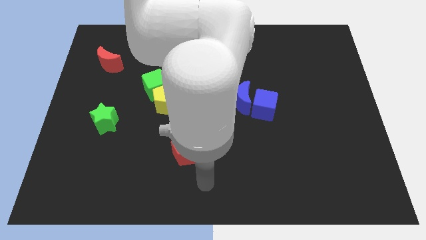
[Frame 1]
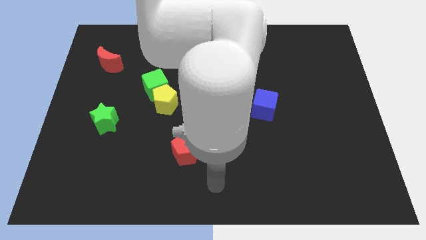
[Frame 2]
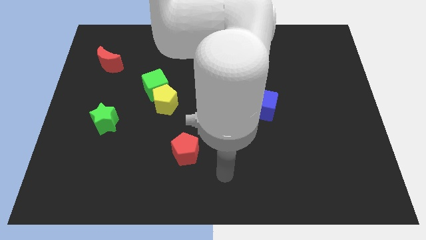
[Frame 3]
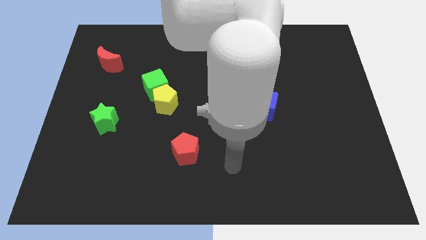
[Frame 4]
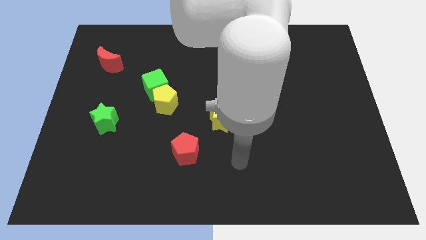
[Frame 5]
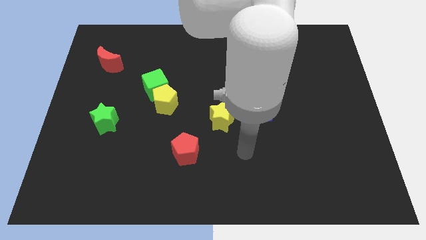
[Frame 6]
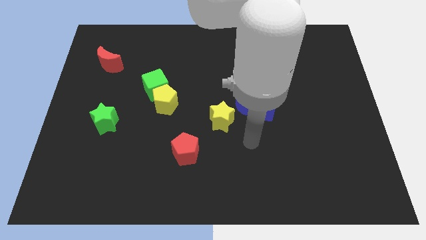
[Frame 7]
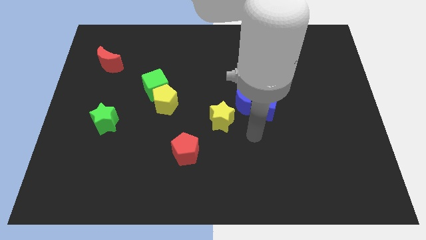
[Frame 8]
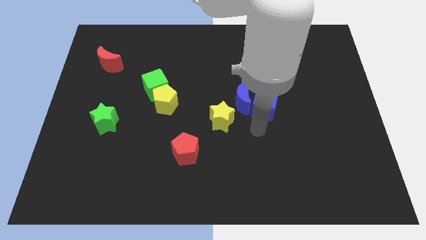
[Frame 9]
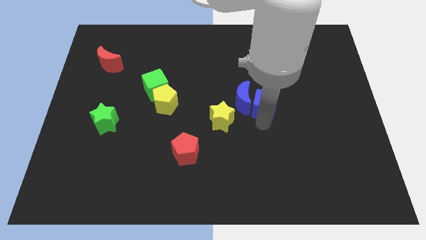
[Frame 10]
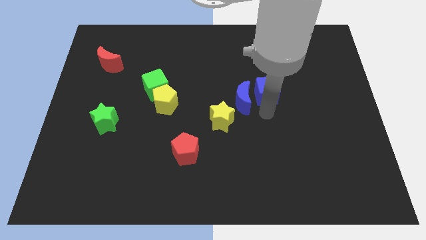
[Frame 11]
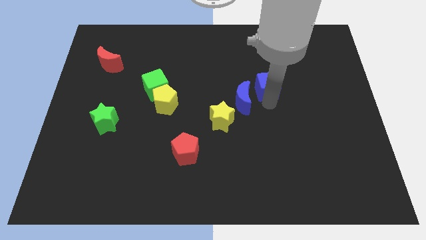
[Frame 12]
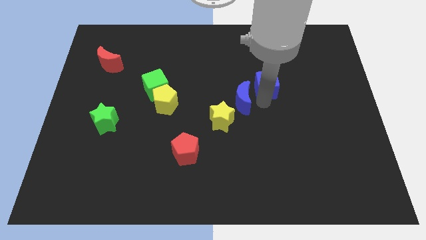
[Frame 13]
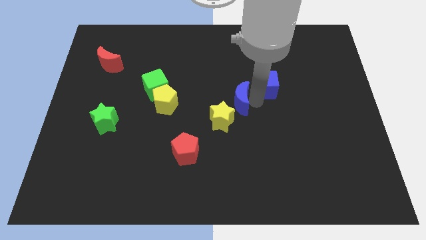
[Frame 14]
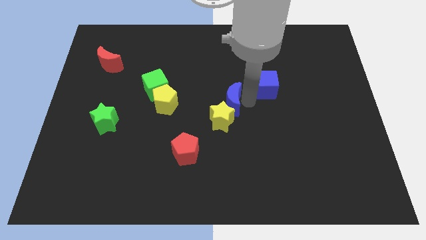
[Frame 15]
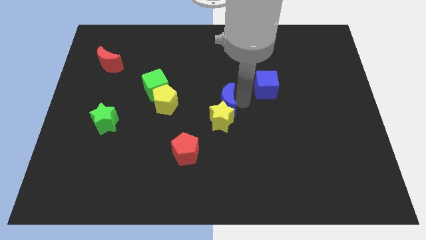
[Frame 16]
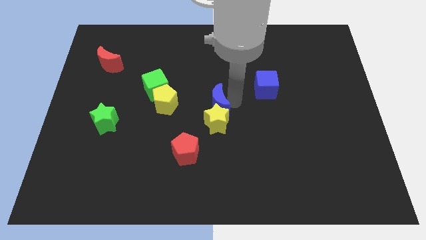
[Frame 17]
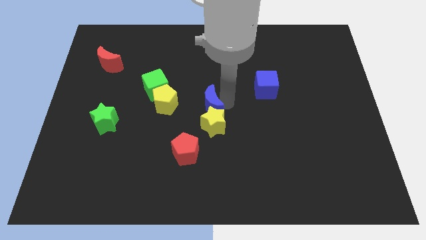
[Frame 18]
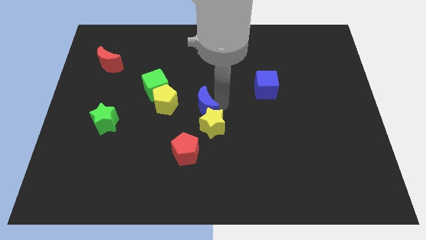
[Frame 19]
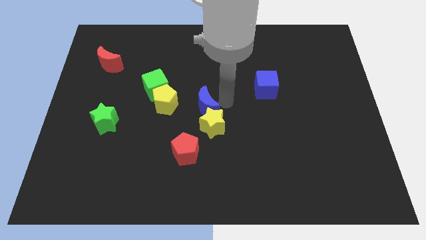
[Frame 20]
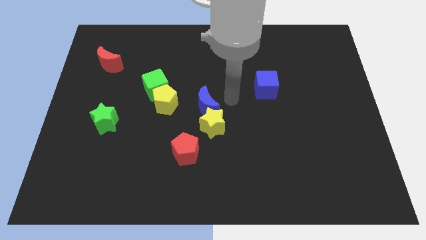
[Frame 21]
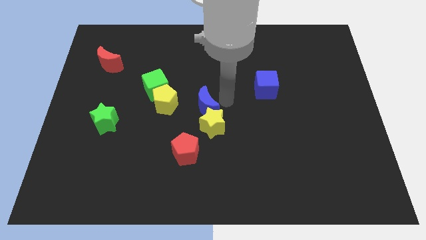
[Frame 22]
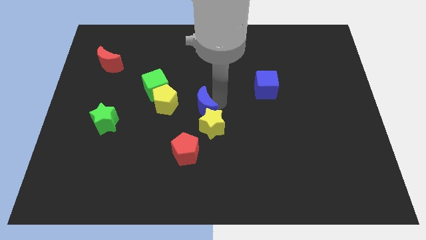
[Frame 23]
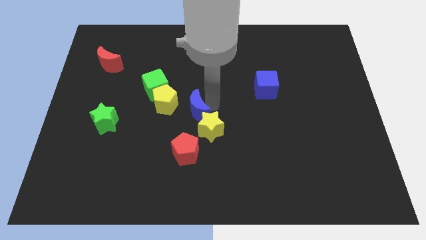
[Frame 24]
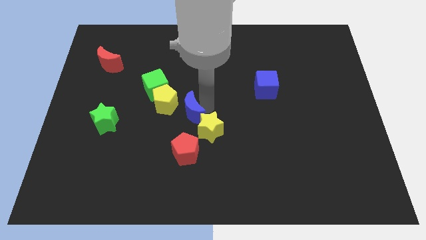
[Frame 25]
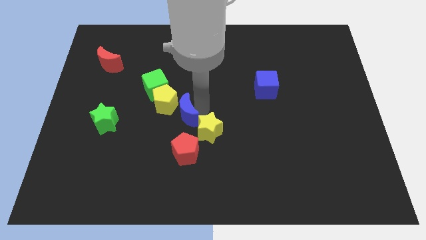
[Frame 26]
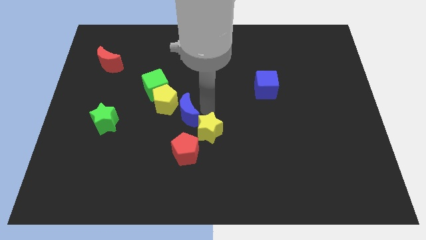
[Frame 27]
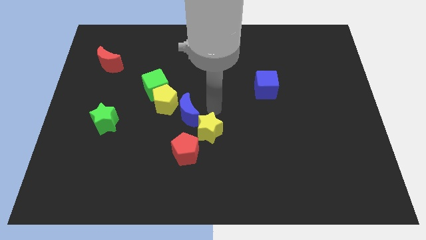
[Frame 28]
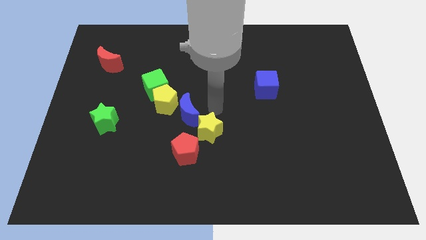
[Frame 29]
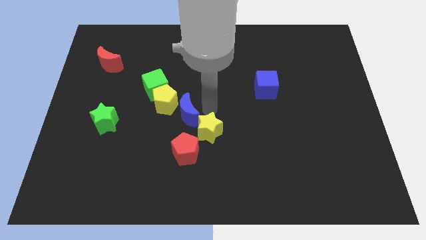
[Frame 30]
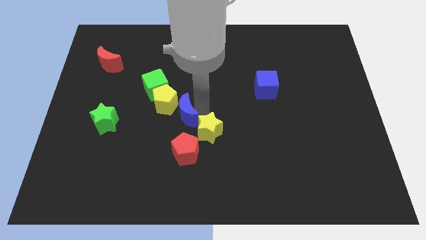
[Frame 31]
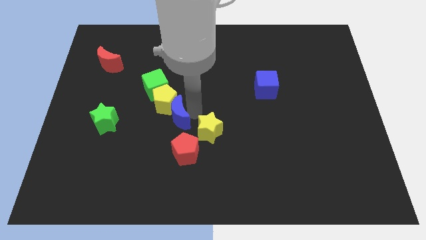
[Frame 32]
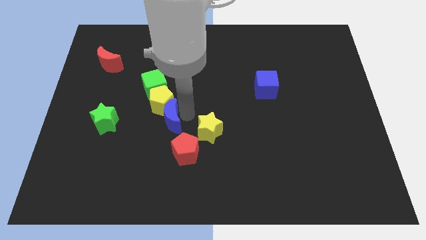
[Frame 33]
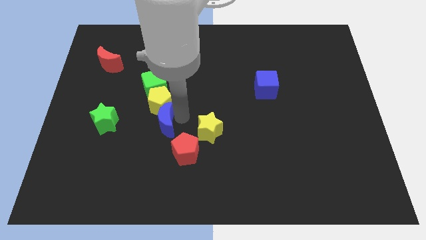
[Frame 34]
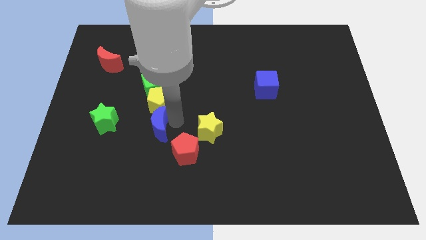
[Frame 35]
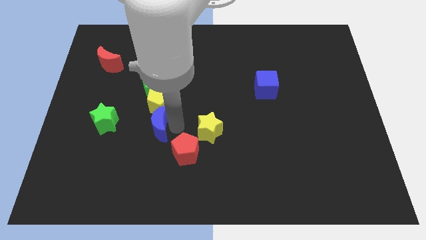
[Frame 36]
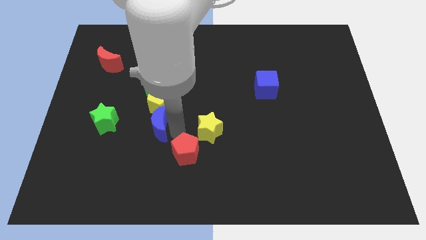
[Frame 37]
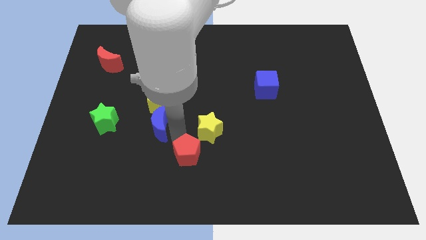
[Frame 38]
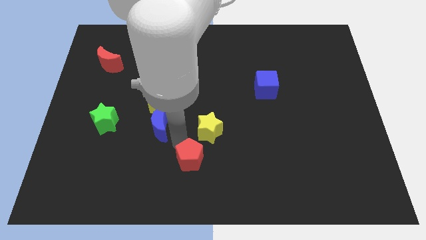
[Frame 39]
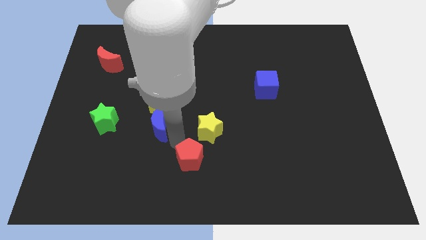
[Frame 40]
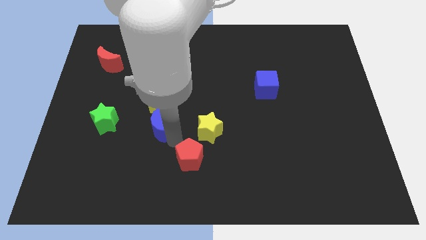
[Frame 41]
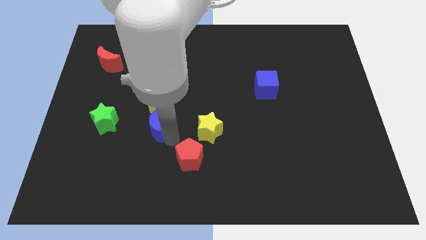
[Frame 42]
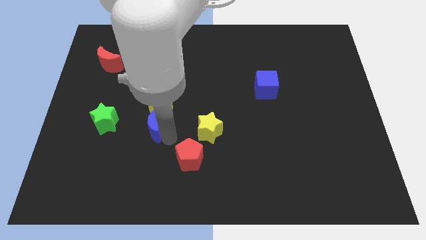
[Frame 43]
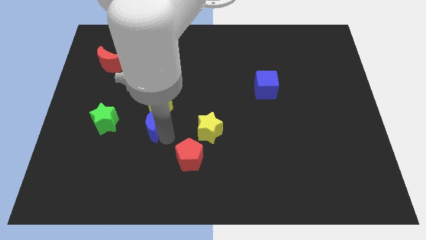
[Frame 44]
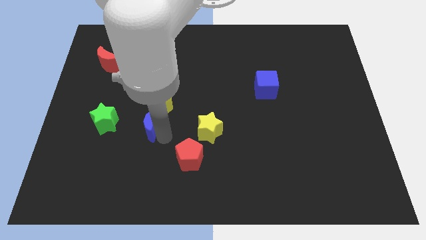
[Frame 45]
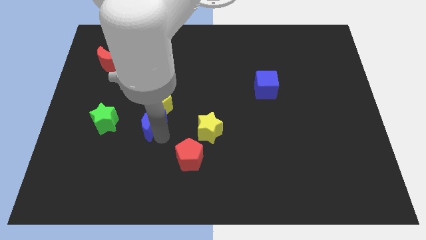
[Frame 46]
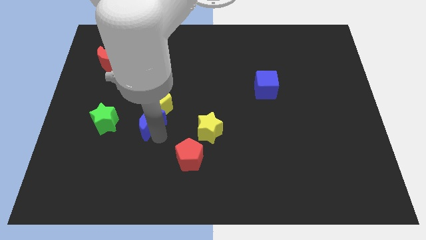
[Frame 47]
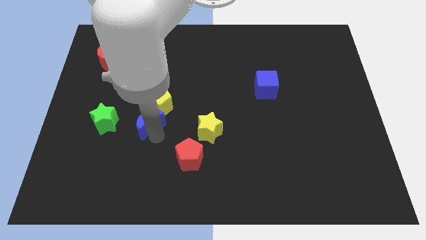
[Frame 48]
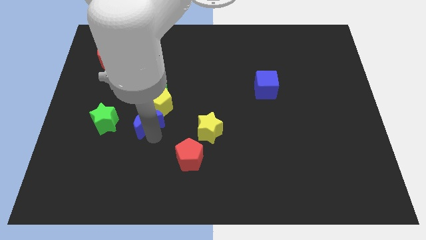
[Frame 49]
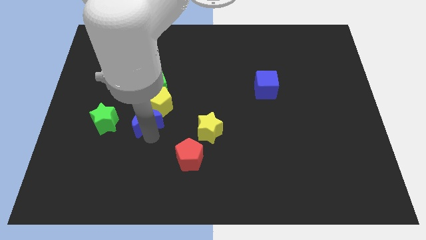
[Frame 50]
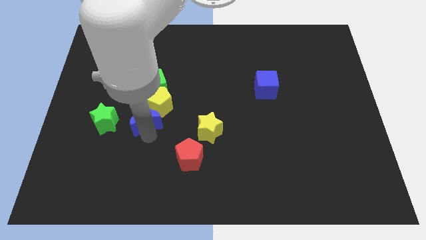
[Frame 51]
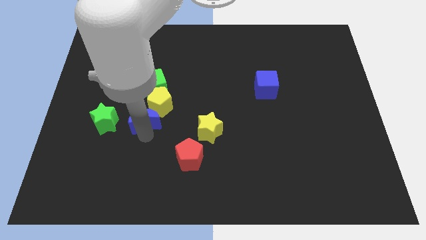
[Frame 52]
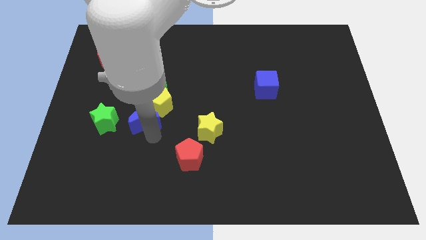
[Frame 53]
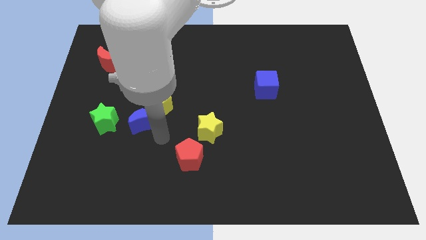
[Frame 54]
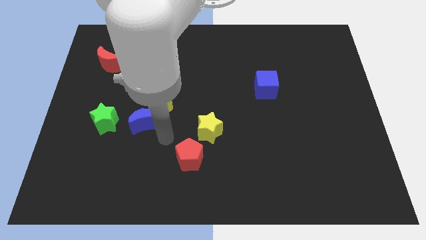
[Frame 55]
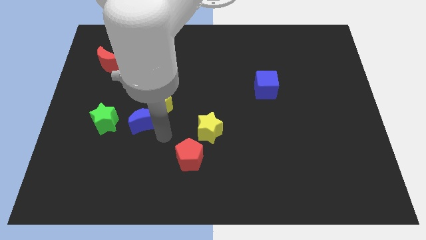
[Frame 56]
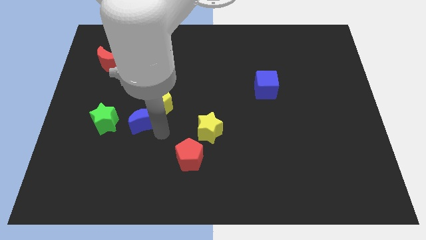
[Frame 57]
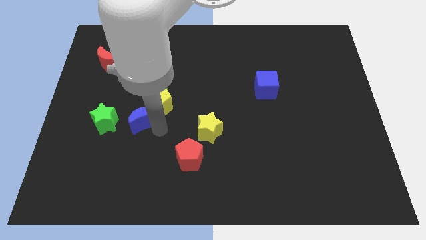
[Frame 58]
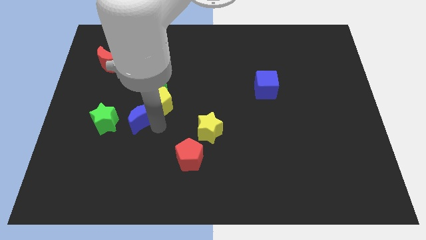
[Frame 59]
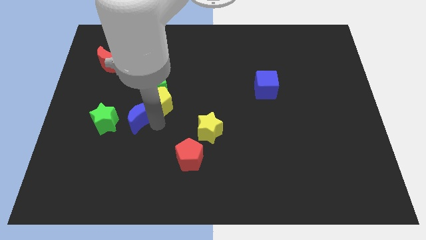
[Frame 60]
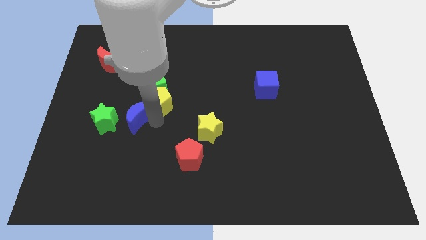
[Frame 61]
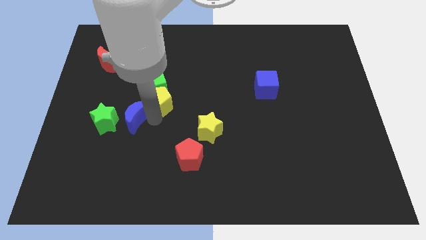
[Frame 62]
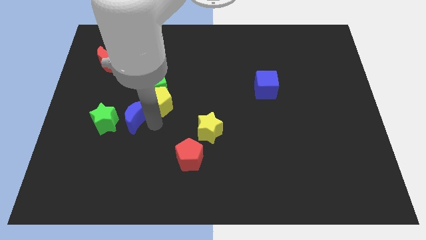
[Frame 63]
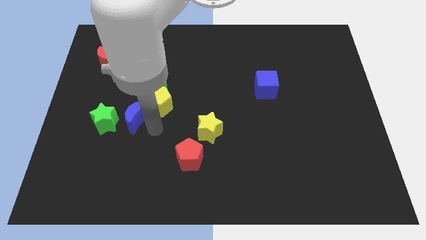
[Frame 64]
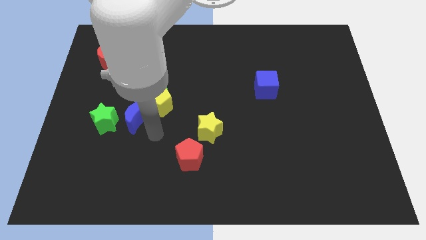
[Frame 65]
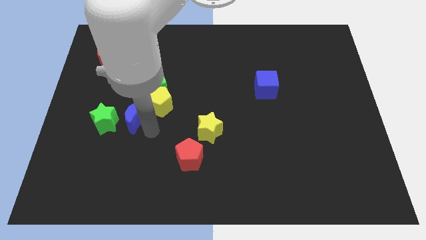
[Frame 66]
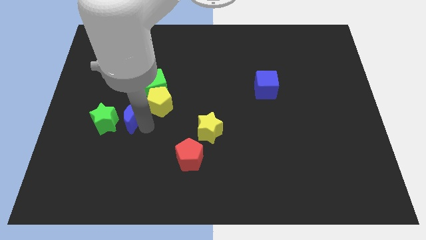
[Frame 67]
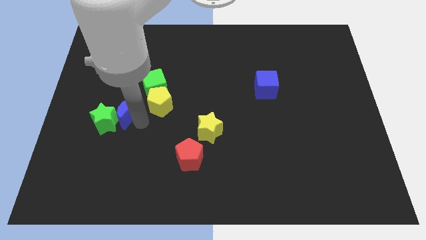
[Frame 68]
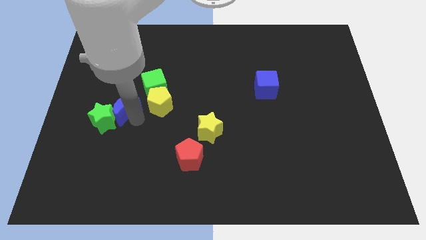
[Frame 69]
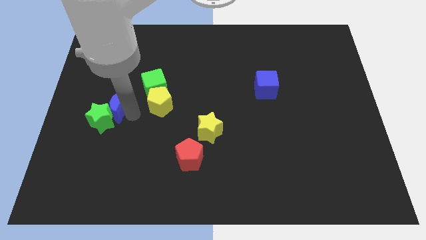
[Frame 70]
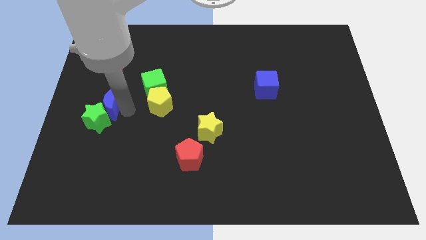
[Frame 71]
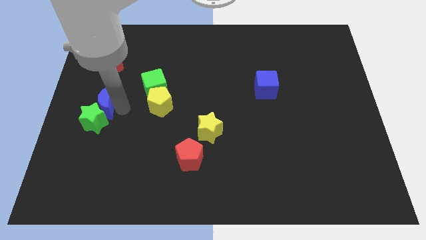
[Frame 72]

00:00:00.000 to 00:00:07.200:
push the blue moon to the left side of the board
